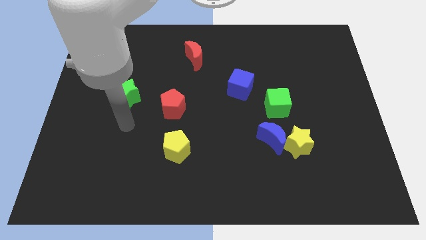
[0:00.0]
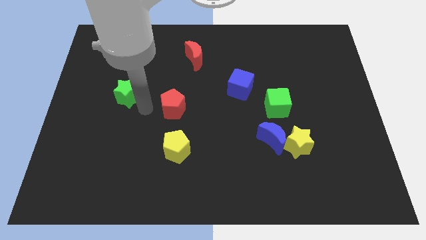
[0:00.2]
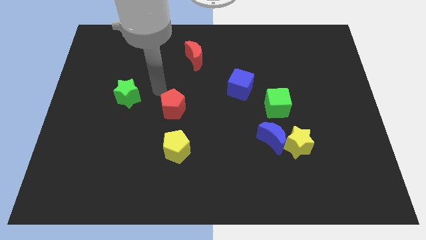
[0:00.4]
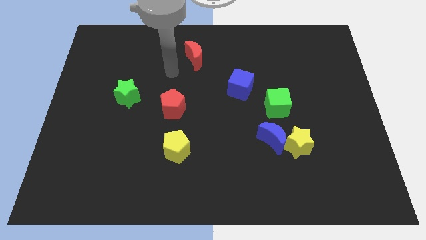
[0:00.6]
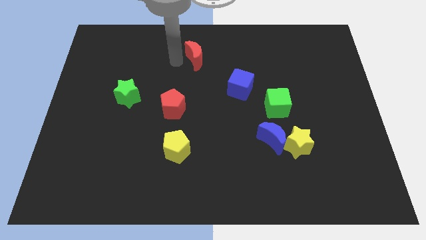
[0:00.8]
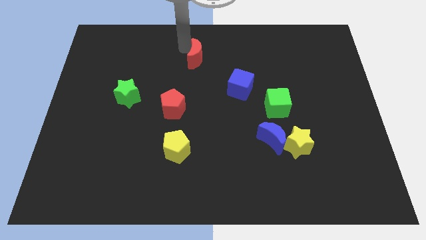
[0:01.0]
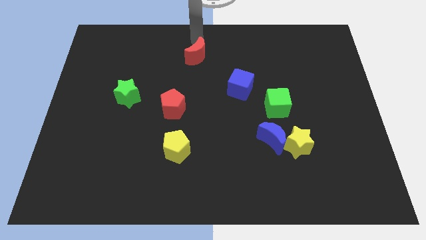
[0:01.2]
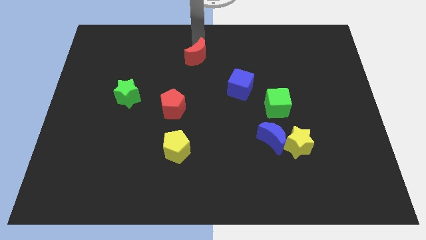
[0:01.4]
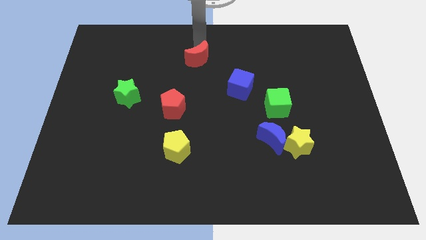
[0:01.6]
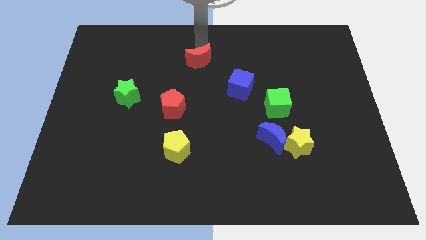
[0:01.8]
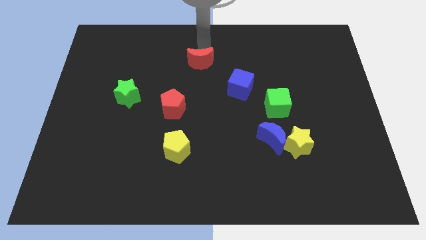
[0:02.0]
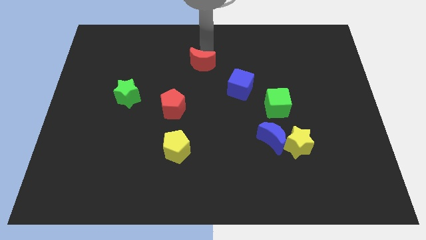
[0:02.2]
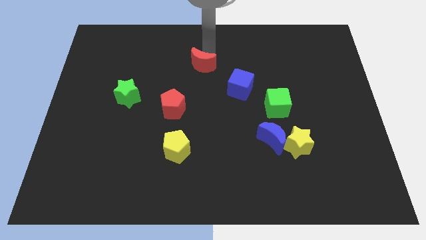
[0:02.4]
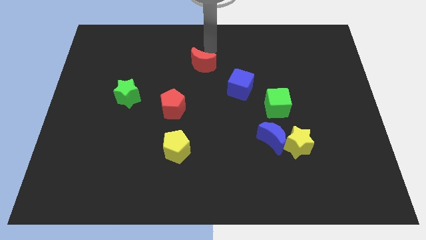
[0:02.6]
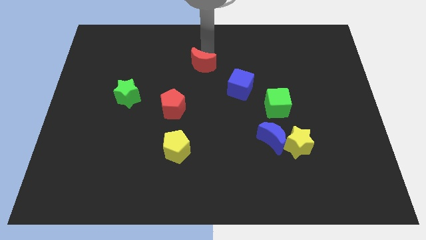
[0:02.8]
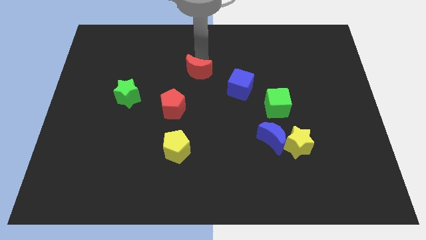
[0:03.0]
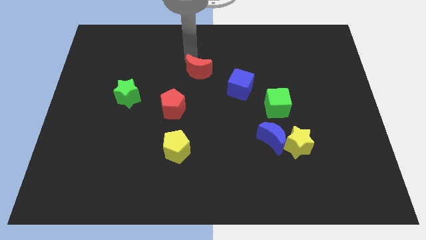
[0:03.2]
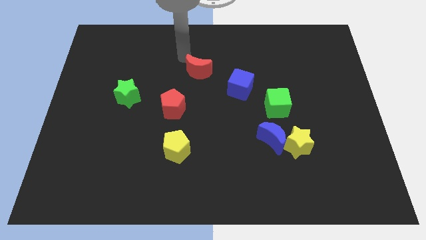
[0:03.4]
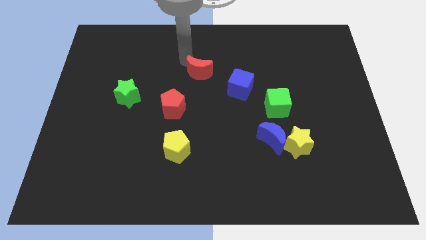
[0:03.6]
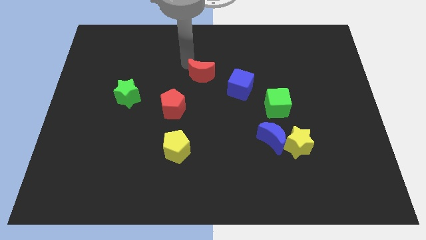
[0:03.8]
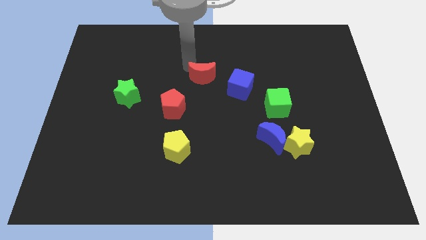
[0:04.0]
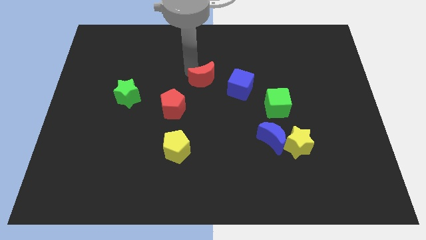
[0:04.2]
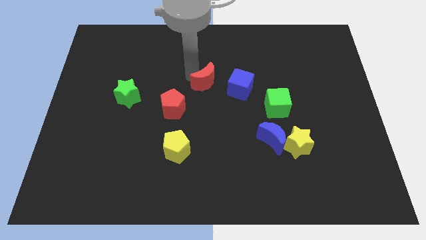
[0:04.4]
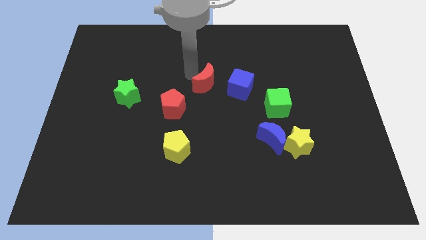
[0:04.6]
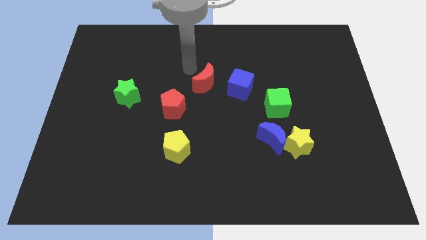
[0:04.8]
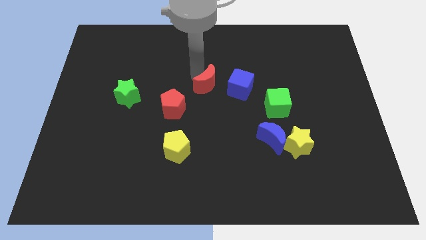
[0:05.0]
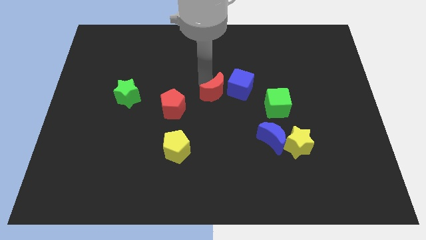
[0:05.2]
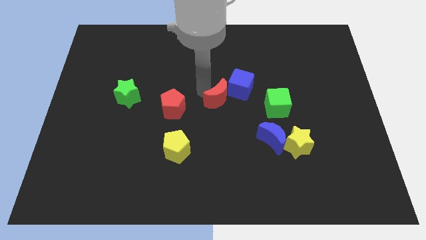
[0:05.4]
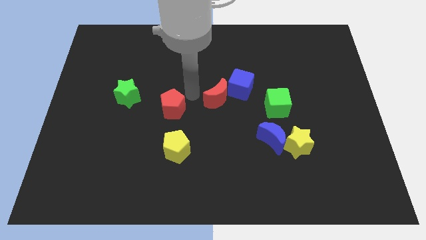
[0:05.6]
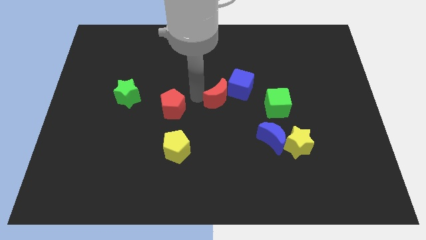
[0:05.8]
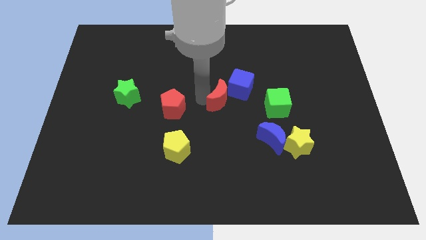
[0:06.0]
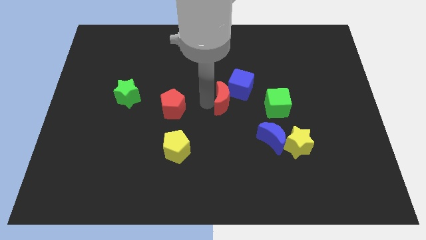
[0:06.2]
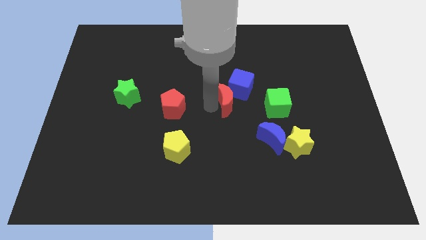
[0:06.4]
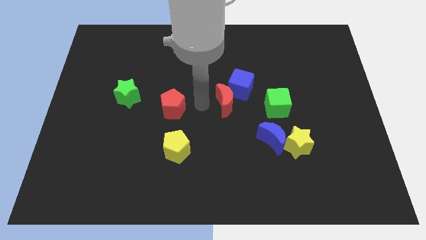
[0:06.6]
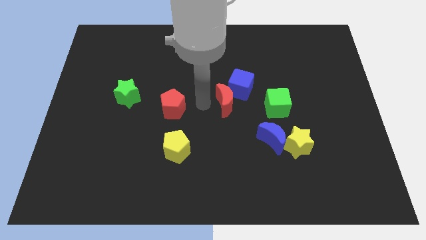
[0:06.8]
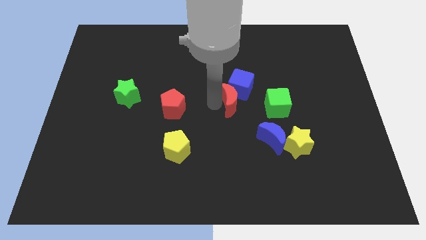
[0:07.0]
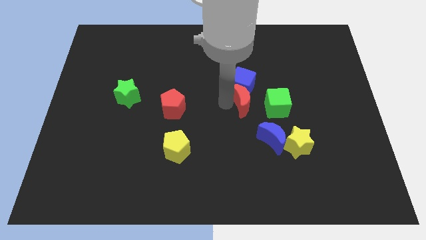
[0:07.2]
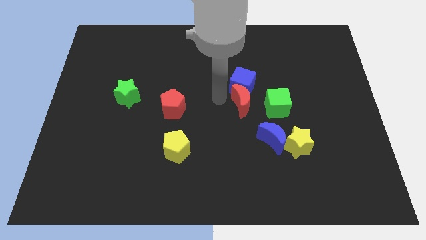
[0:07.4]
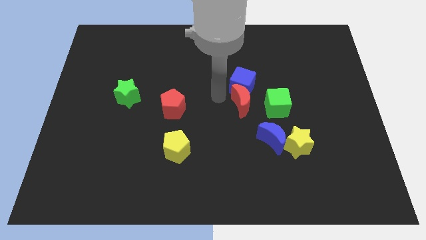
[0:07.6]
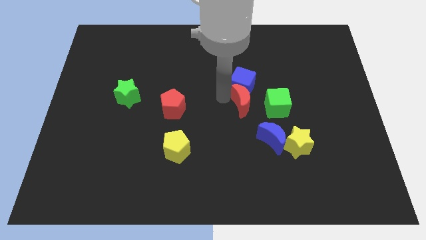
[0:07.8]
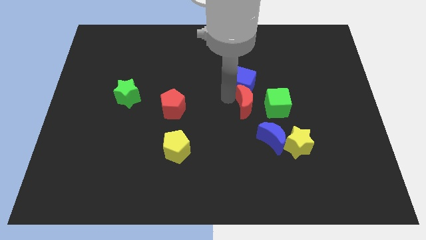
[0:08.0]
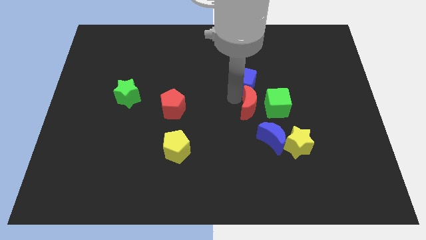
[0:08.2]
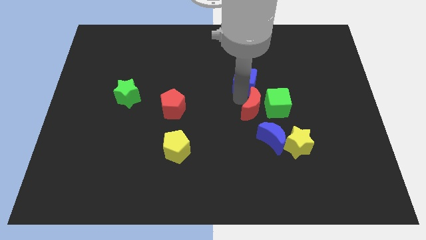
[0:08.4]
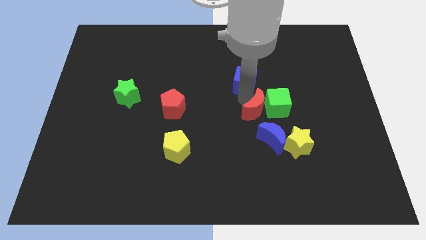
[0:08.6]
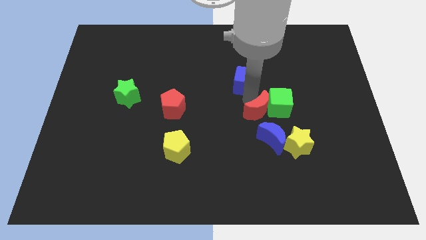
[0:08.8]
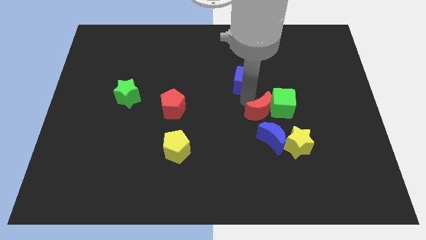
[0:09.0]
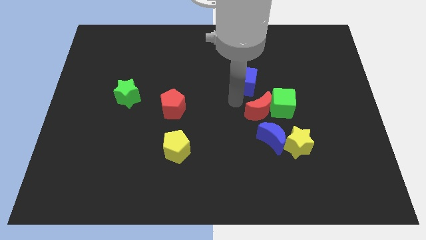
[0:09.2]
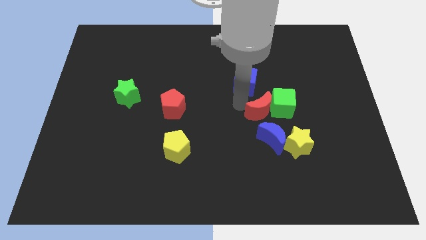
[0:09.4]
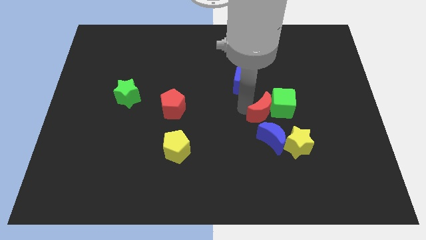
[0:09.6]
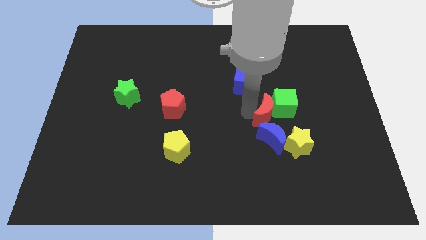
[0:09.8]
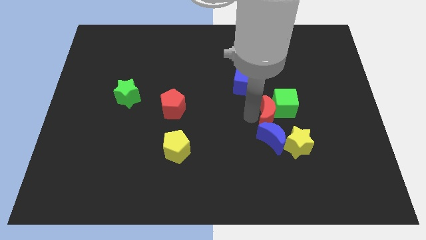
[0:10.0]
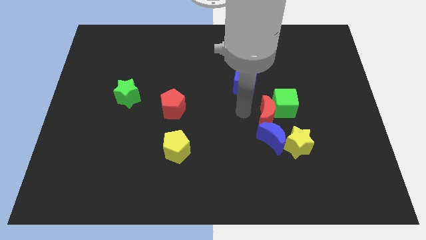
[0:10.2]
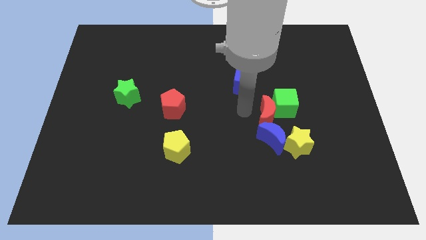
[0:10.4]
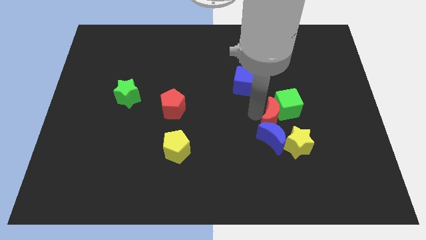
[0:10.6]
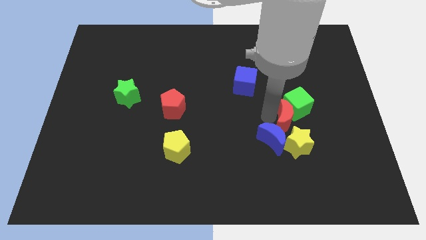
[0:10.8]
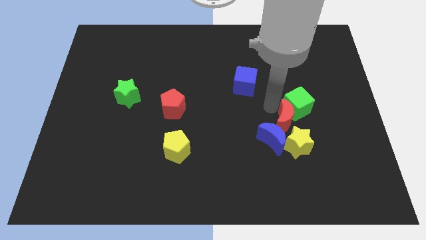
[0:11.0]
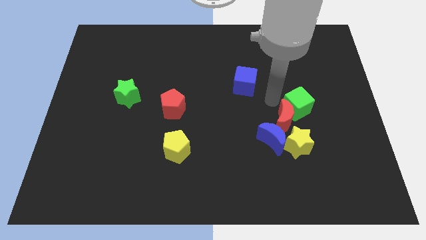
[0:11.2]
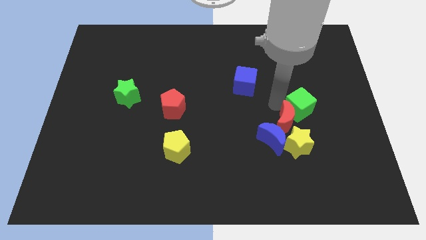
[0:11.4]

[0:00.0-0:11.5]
move the red moon to the yellow star

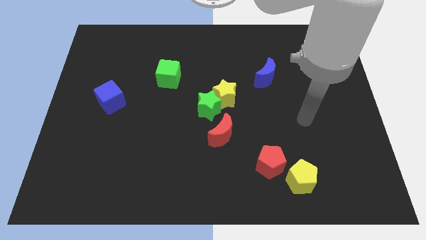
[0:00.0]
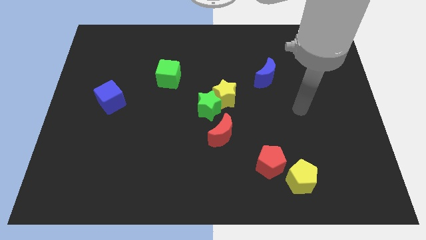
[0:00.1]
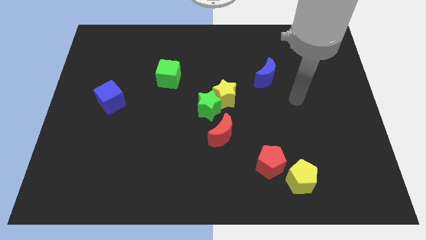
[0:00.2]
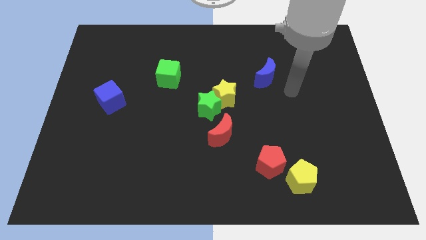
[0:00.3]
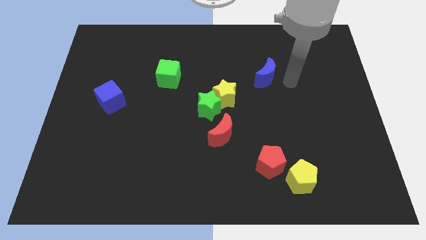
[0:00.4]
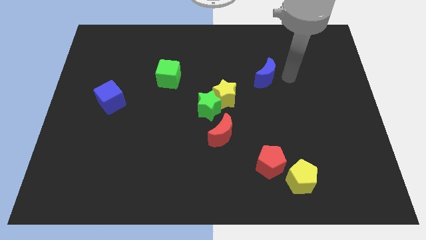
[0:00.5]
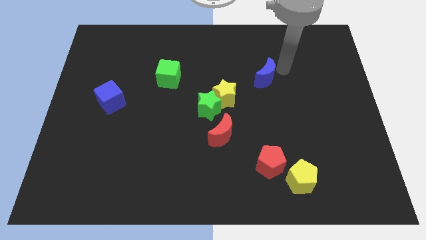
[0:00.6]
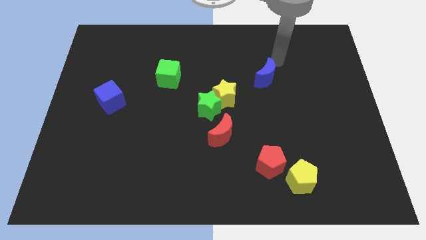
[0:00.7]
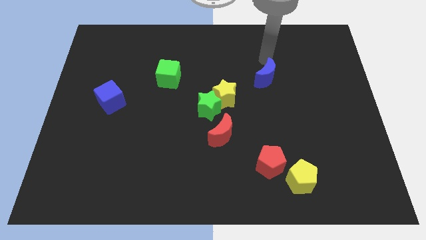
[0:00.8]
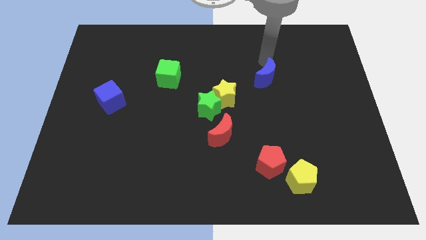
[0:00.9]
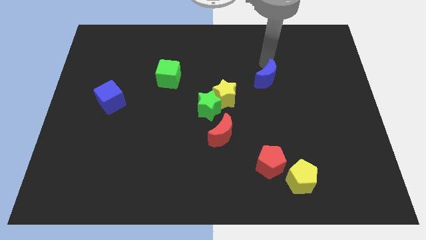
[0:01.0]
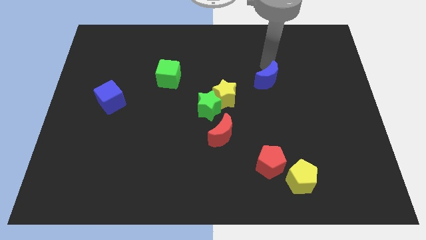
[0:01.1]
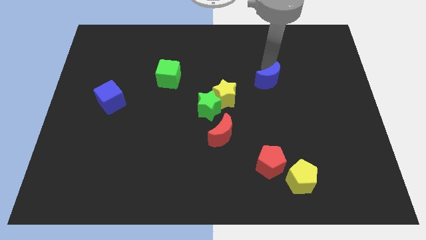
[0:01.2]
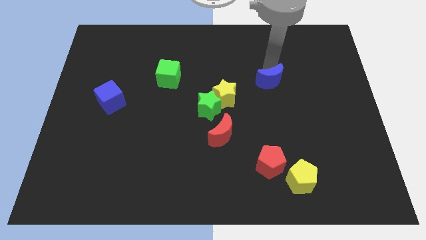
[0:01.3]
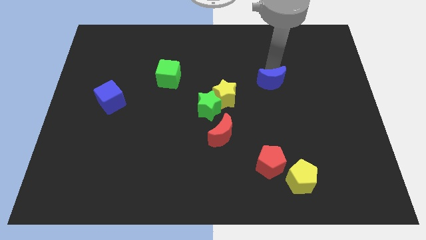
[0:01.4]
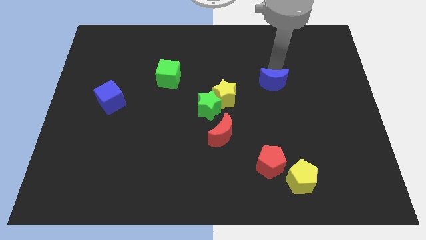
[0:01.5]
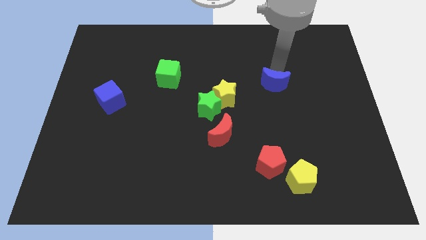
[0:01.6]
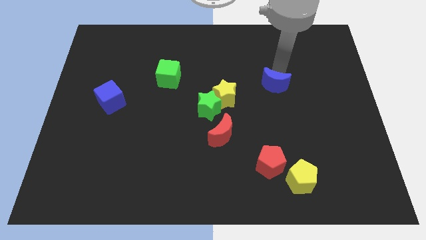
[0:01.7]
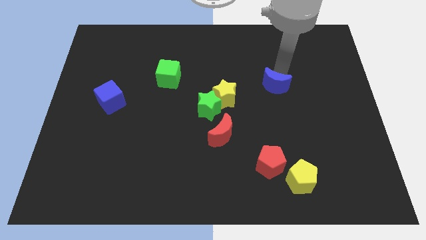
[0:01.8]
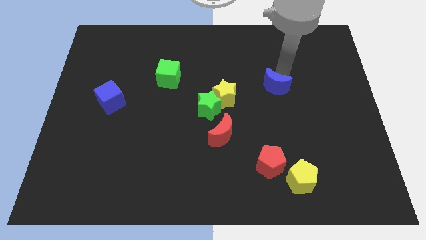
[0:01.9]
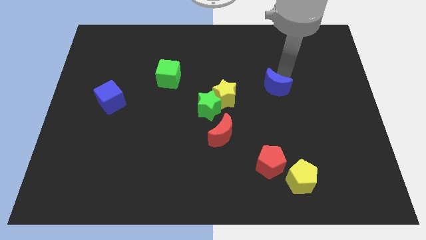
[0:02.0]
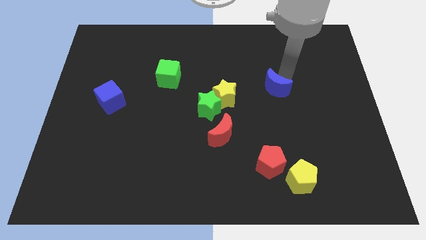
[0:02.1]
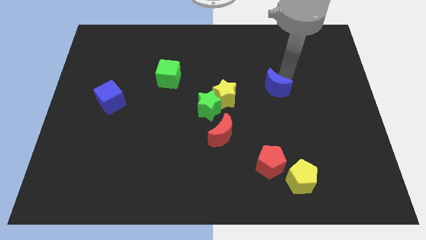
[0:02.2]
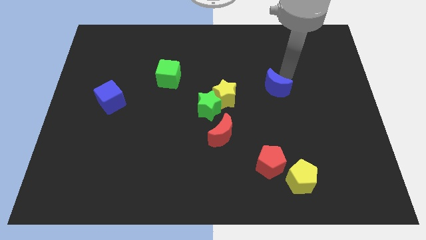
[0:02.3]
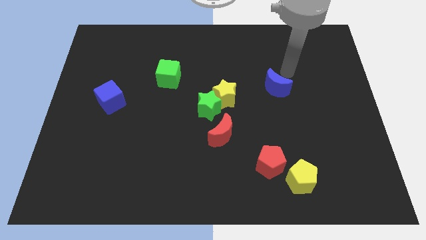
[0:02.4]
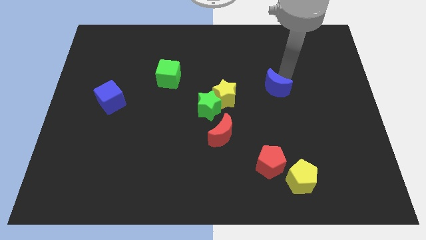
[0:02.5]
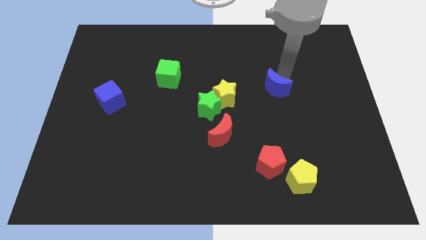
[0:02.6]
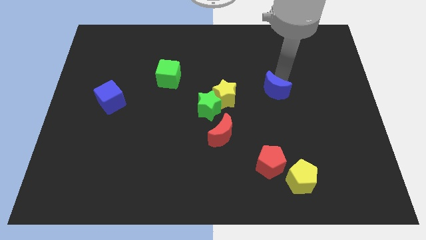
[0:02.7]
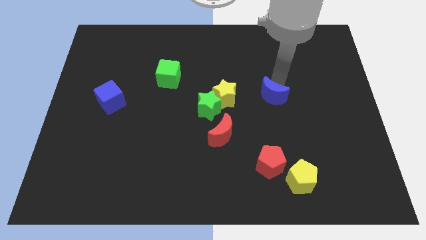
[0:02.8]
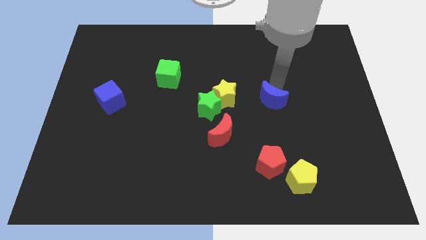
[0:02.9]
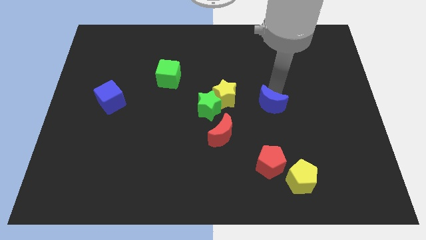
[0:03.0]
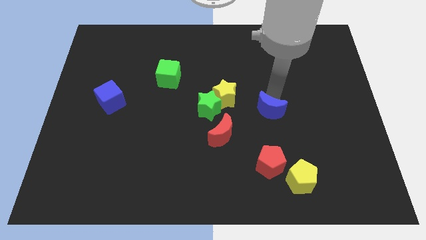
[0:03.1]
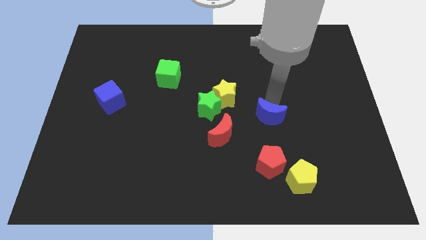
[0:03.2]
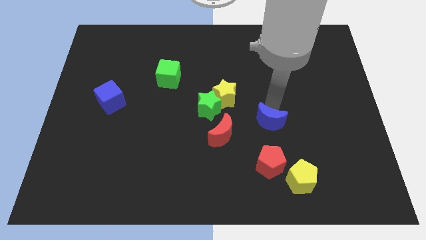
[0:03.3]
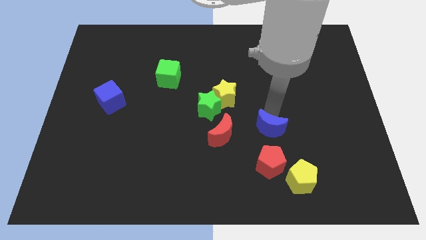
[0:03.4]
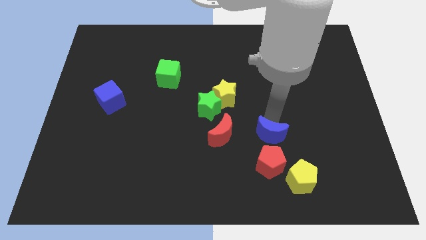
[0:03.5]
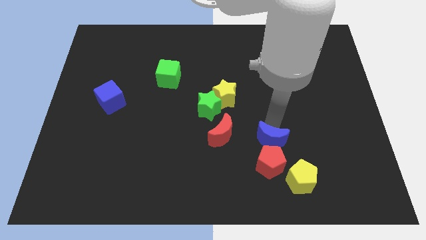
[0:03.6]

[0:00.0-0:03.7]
slide the blue moon next to the red pentagon
